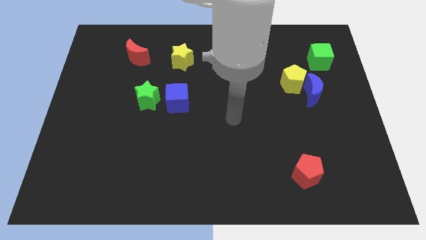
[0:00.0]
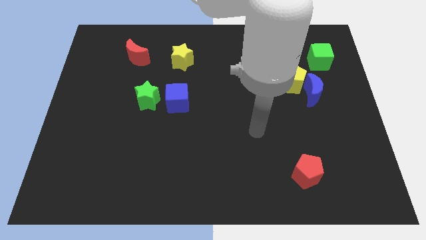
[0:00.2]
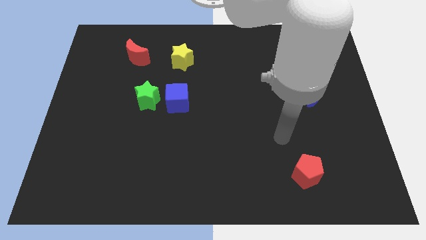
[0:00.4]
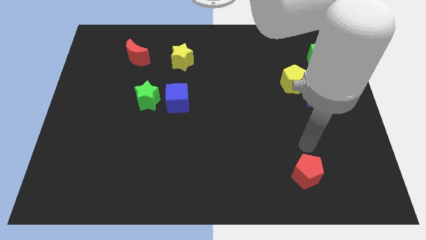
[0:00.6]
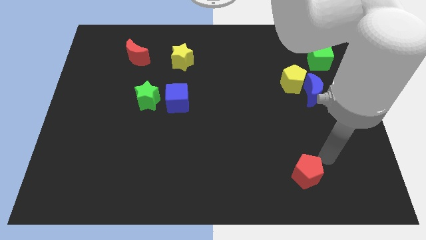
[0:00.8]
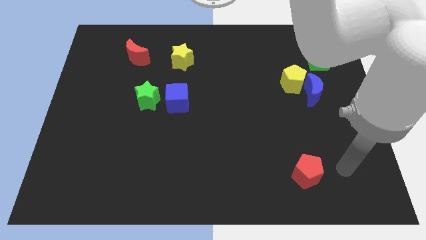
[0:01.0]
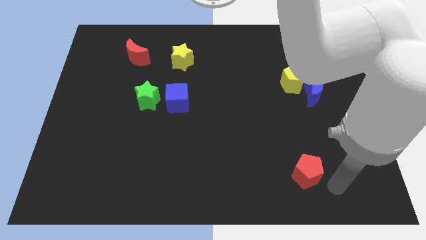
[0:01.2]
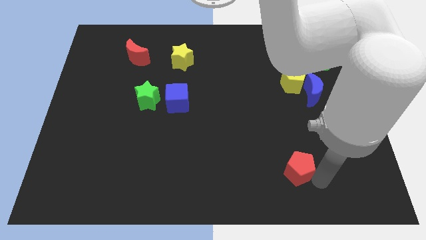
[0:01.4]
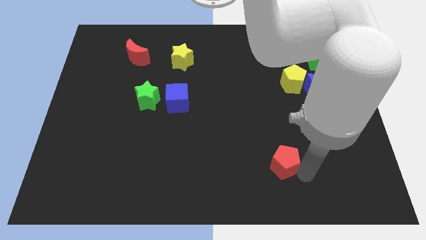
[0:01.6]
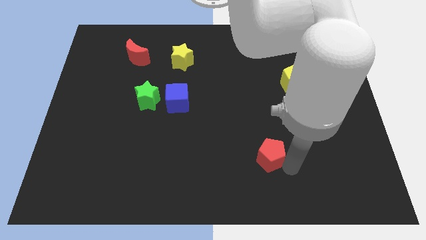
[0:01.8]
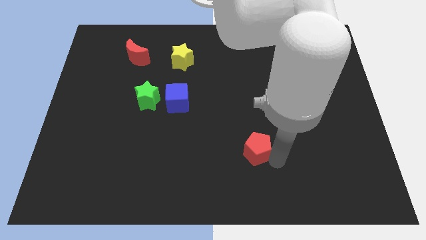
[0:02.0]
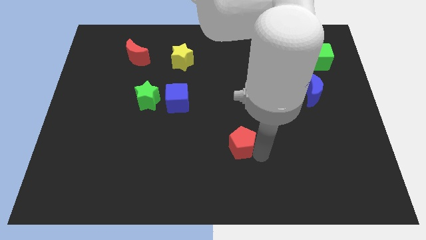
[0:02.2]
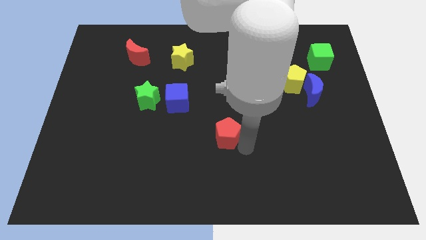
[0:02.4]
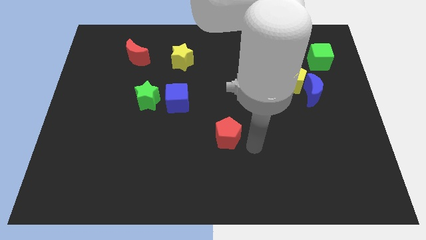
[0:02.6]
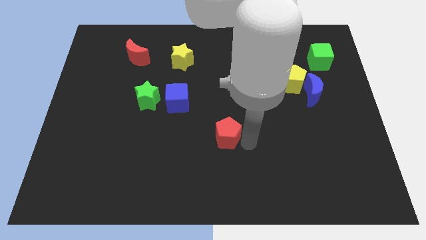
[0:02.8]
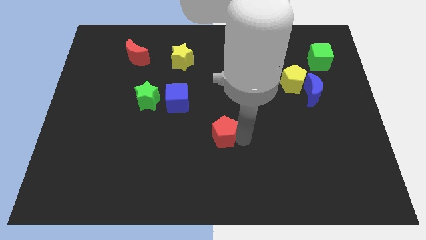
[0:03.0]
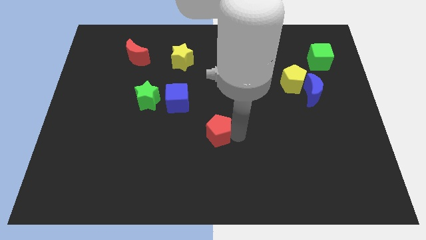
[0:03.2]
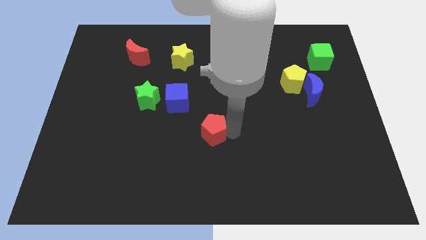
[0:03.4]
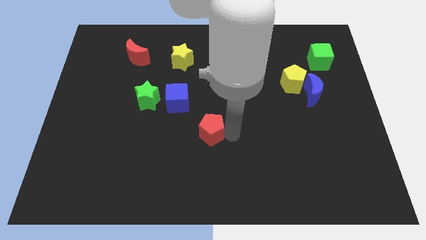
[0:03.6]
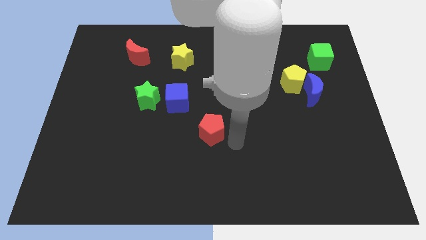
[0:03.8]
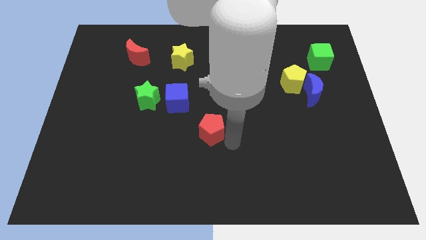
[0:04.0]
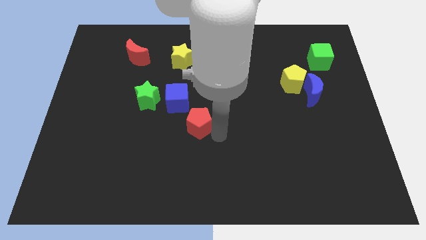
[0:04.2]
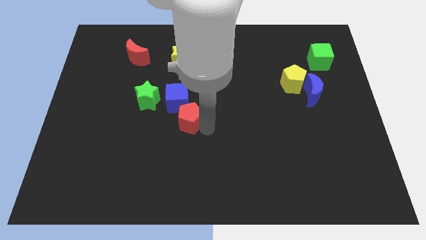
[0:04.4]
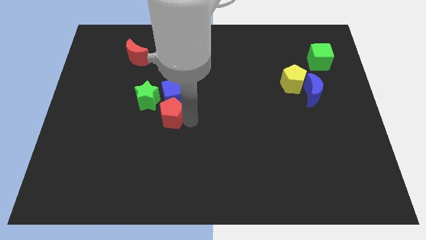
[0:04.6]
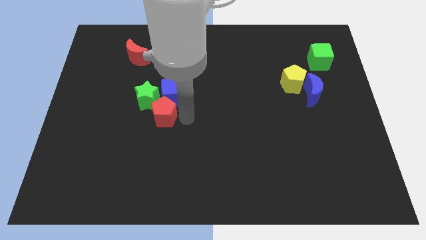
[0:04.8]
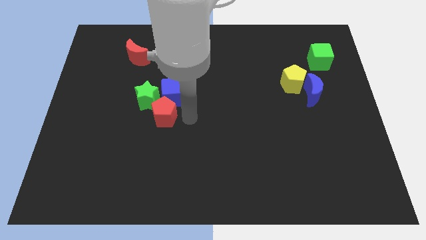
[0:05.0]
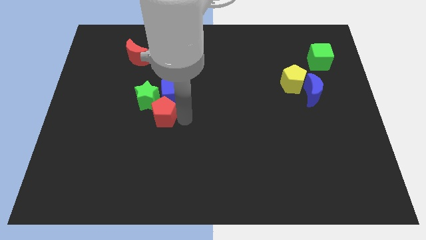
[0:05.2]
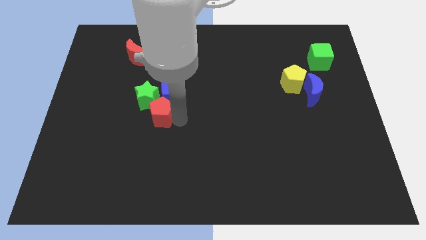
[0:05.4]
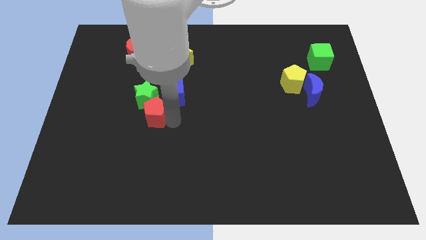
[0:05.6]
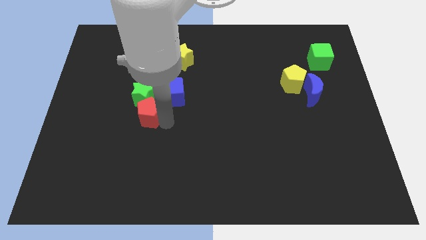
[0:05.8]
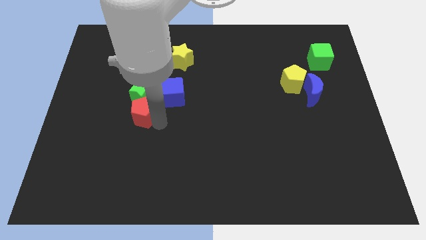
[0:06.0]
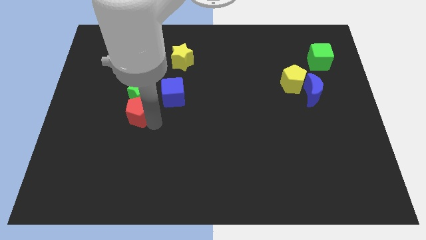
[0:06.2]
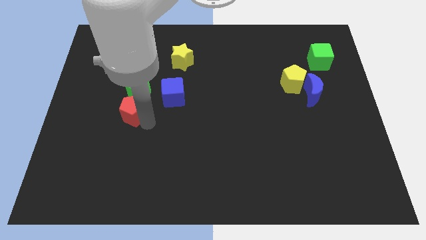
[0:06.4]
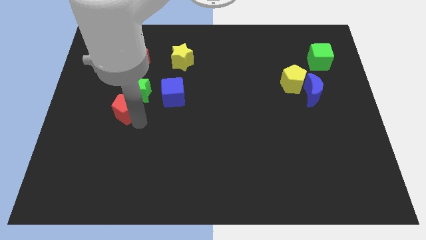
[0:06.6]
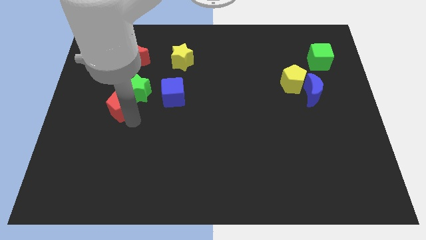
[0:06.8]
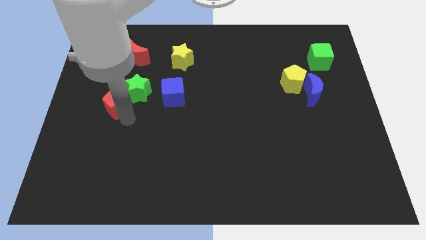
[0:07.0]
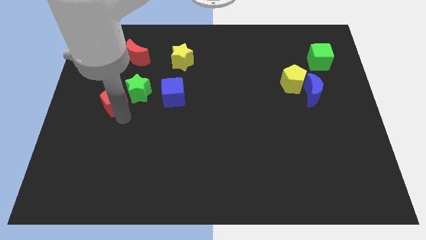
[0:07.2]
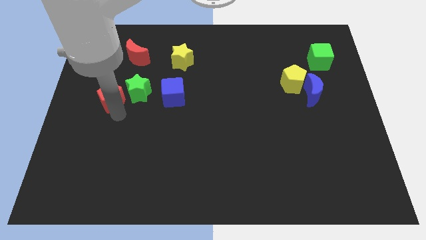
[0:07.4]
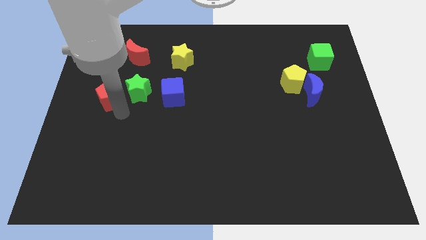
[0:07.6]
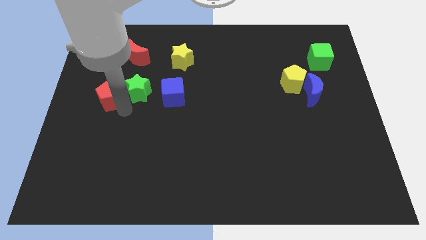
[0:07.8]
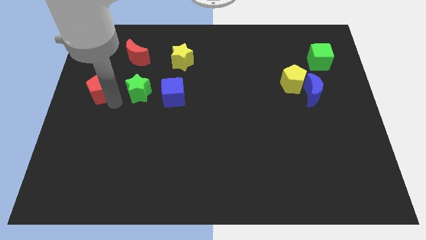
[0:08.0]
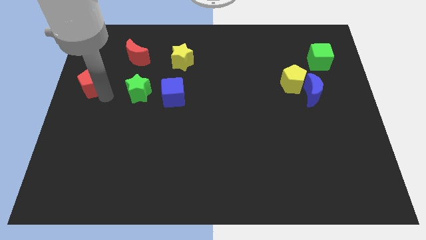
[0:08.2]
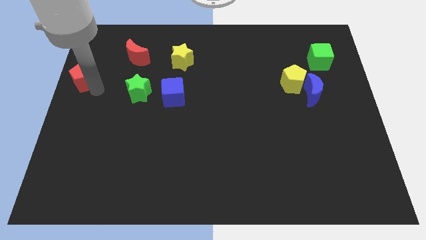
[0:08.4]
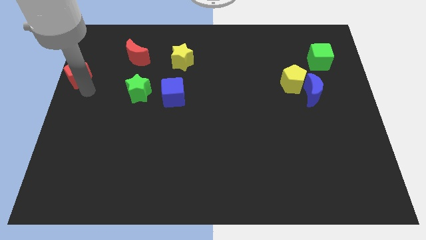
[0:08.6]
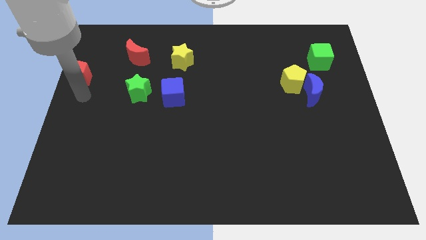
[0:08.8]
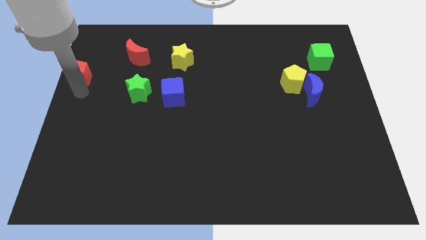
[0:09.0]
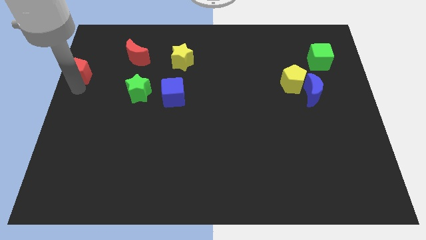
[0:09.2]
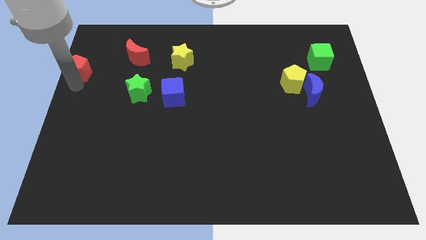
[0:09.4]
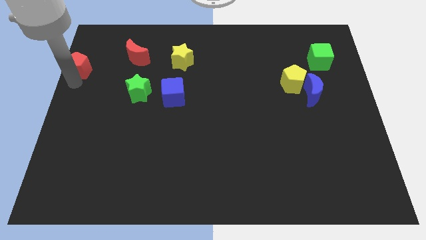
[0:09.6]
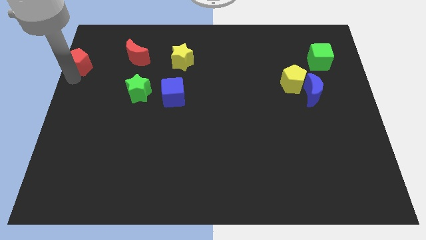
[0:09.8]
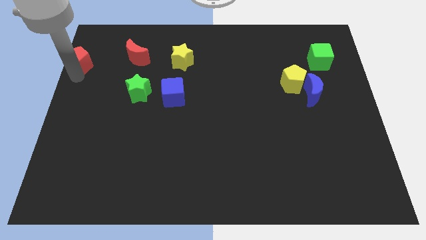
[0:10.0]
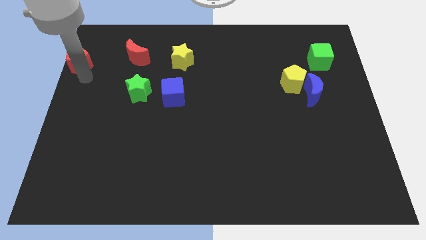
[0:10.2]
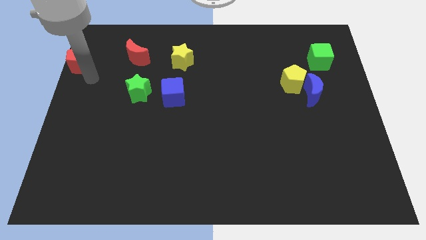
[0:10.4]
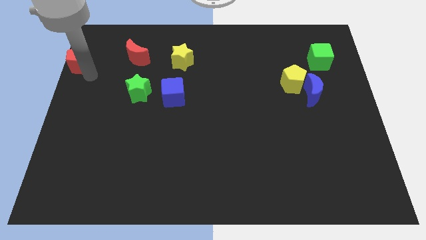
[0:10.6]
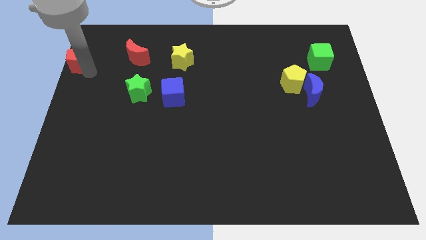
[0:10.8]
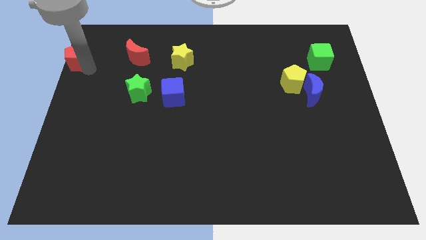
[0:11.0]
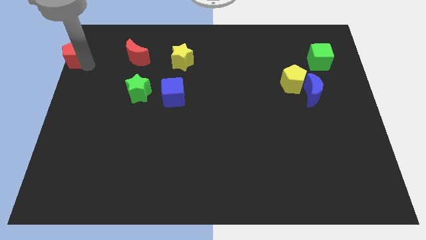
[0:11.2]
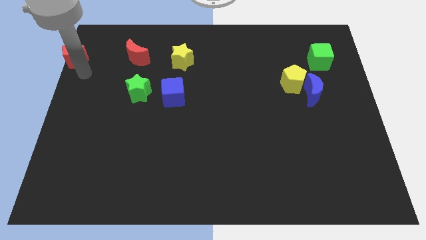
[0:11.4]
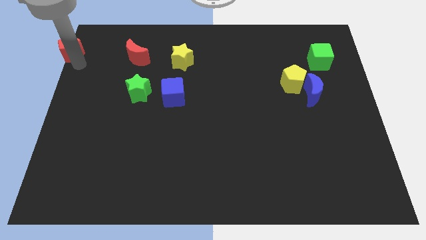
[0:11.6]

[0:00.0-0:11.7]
slide the red pentagon to the upper left corner
